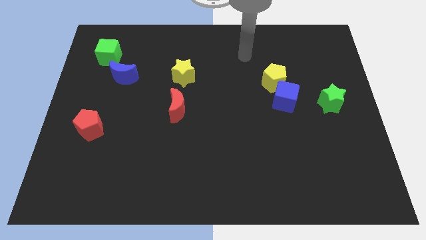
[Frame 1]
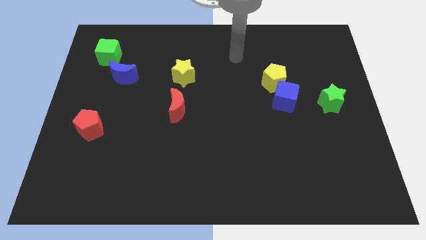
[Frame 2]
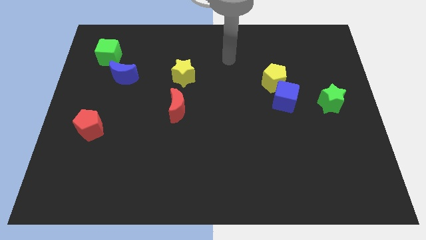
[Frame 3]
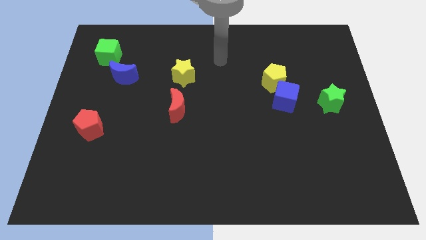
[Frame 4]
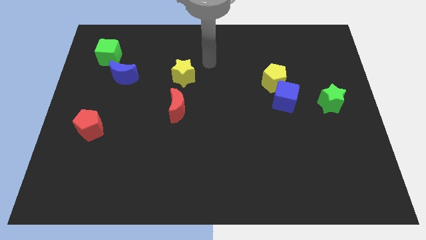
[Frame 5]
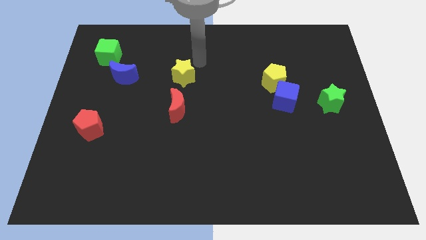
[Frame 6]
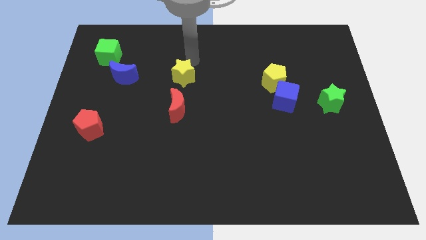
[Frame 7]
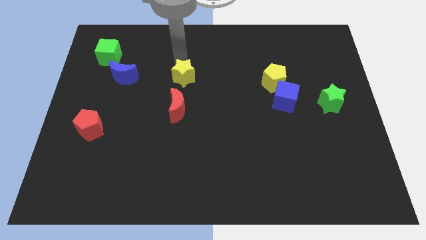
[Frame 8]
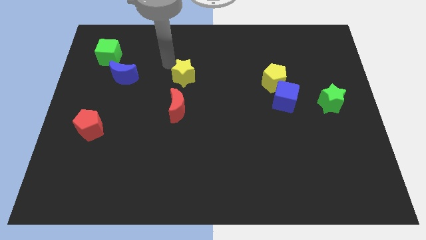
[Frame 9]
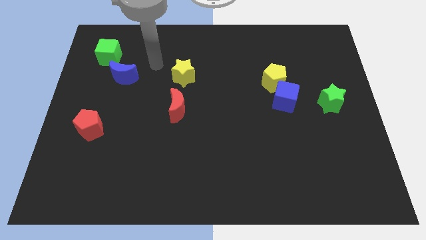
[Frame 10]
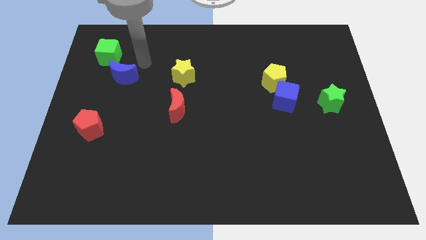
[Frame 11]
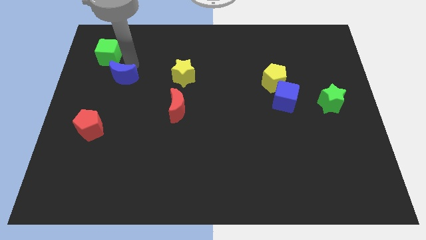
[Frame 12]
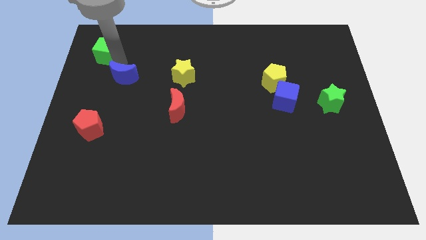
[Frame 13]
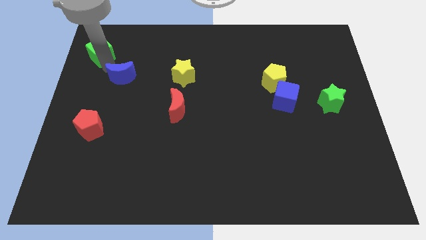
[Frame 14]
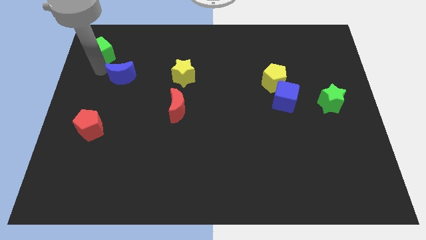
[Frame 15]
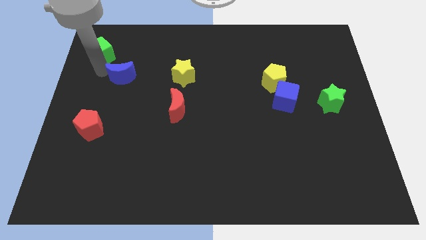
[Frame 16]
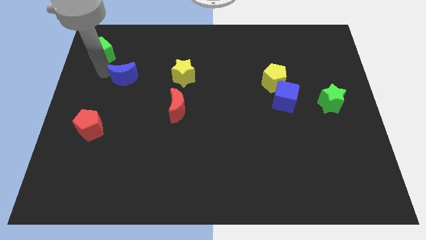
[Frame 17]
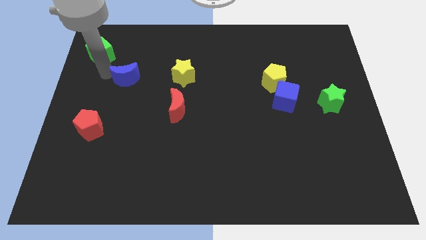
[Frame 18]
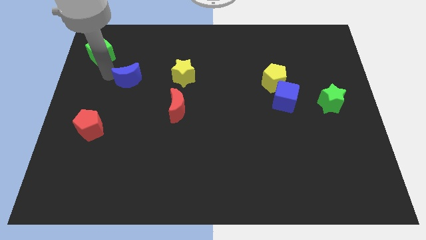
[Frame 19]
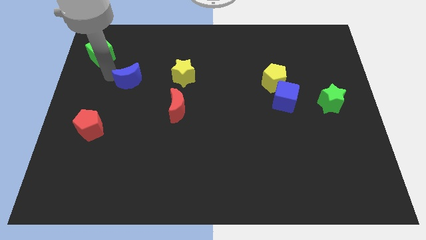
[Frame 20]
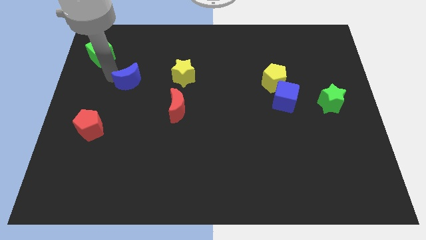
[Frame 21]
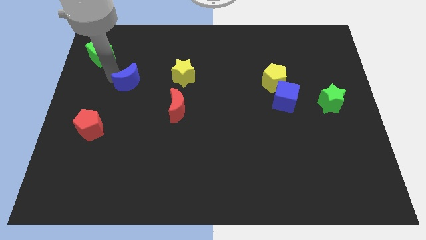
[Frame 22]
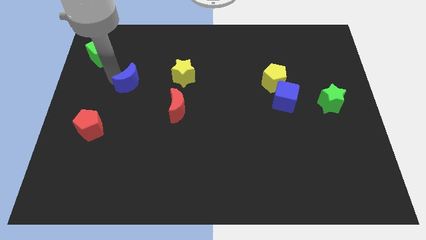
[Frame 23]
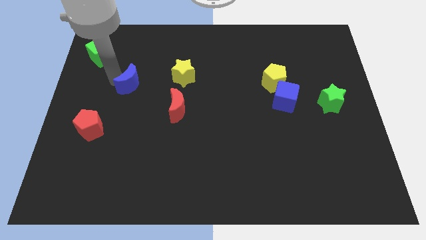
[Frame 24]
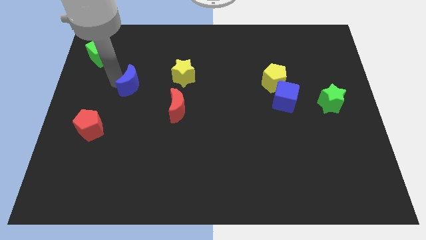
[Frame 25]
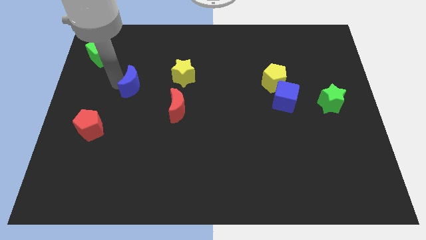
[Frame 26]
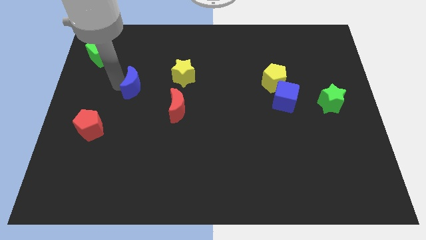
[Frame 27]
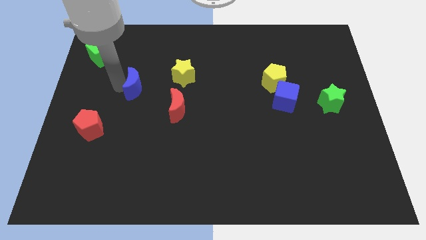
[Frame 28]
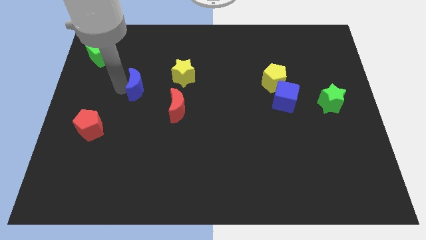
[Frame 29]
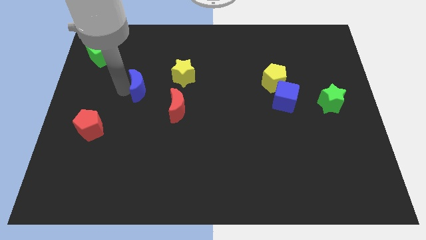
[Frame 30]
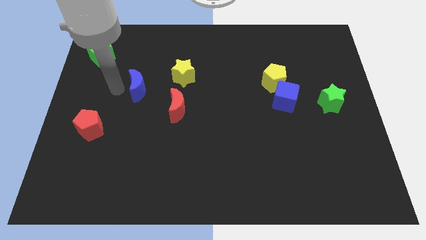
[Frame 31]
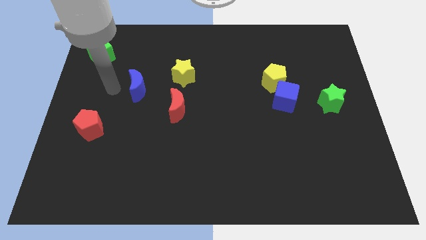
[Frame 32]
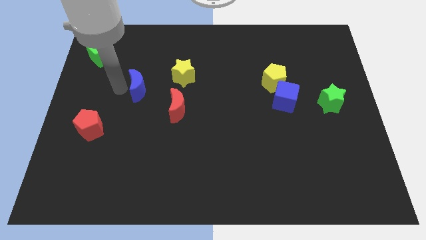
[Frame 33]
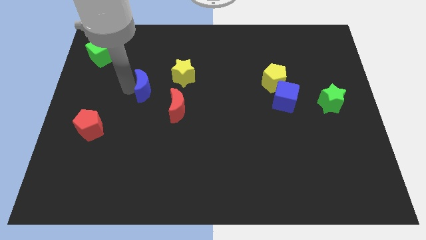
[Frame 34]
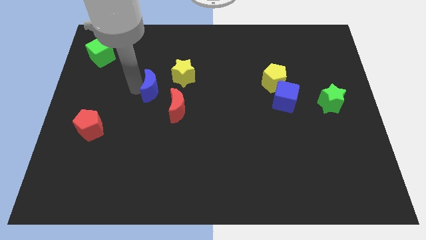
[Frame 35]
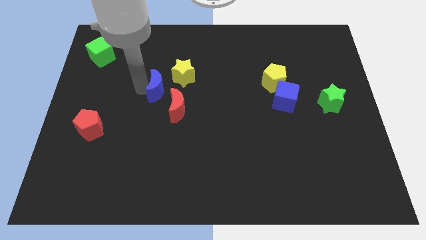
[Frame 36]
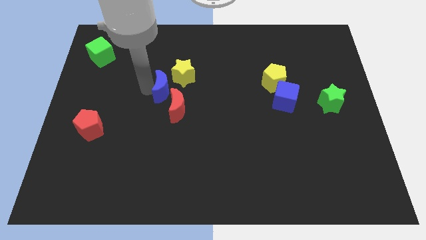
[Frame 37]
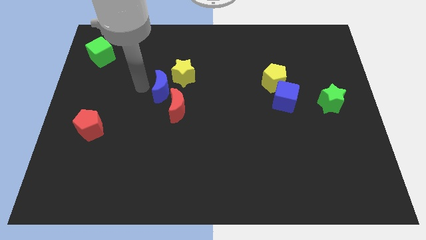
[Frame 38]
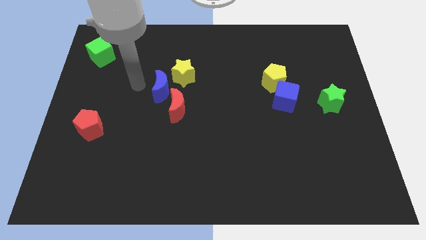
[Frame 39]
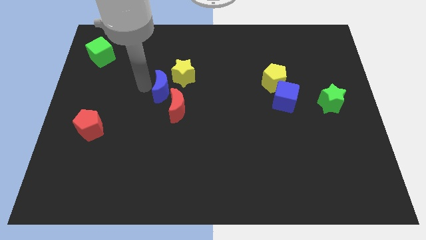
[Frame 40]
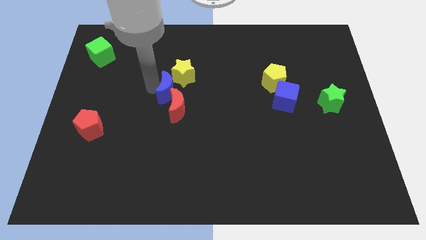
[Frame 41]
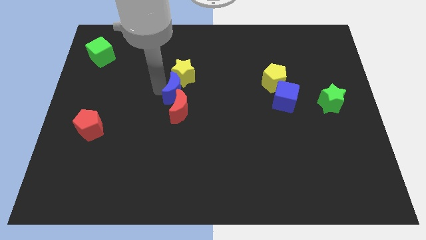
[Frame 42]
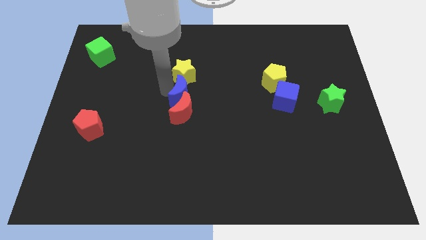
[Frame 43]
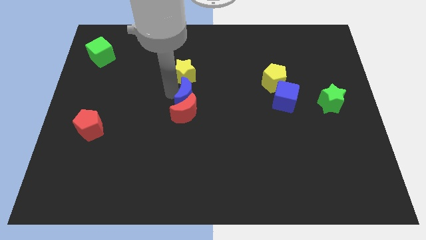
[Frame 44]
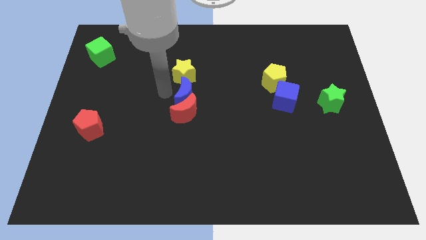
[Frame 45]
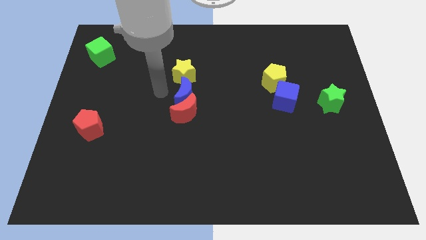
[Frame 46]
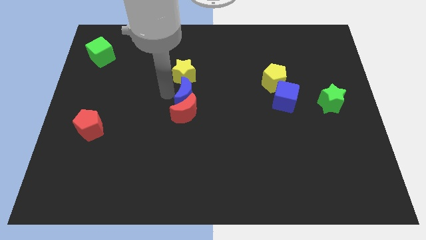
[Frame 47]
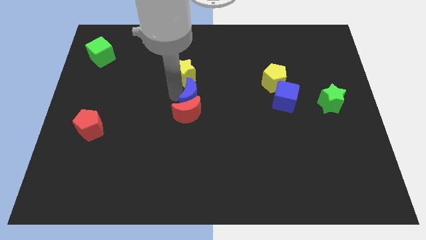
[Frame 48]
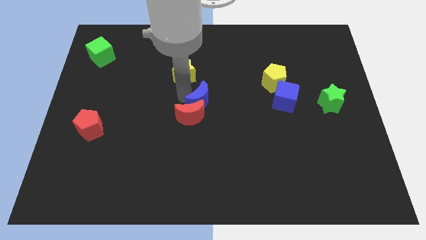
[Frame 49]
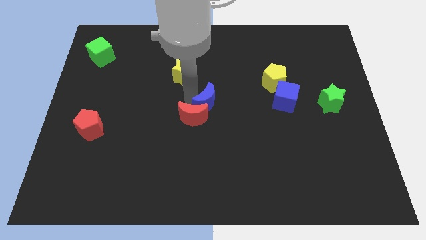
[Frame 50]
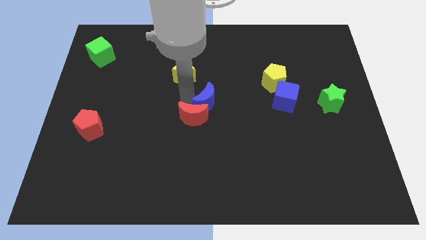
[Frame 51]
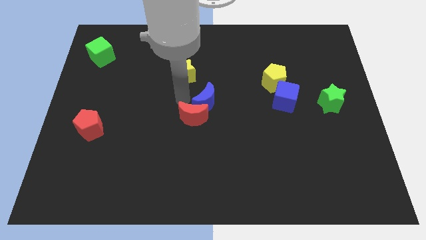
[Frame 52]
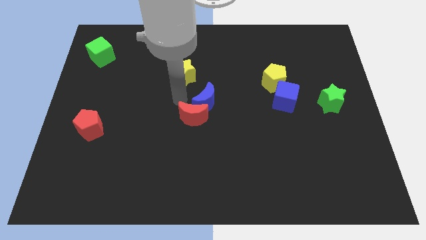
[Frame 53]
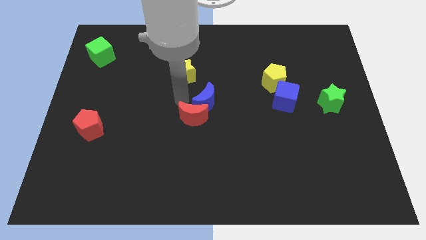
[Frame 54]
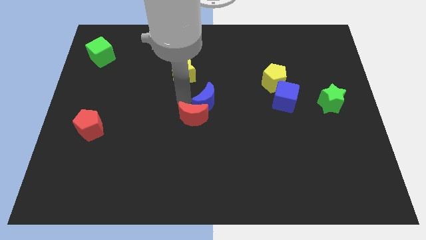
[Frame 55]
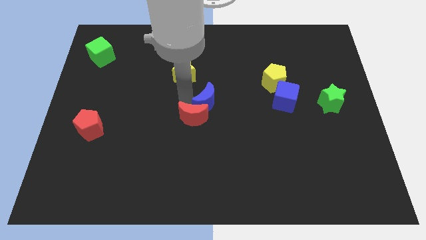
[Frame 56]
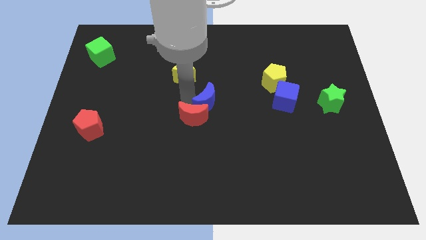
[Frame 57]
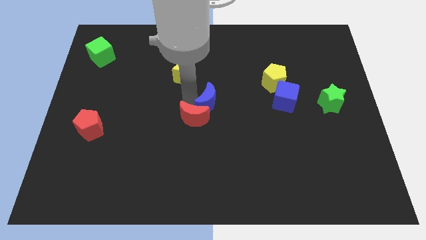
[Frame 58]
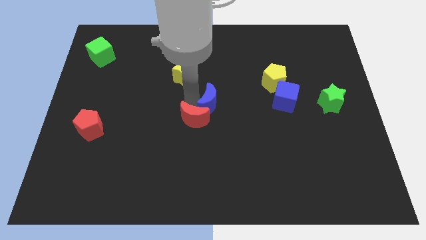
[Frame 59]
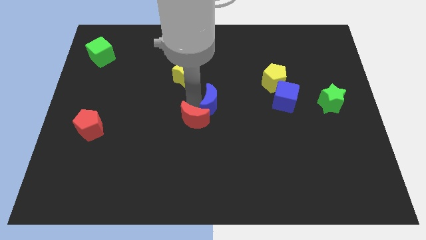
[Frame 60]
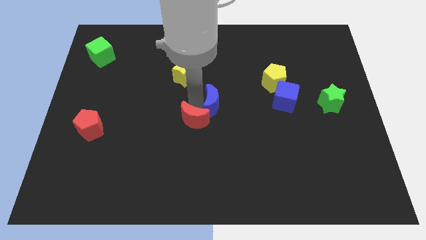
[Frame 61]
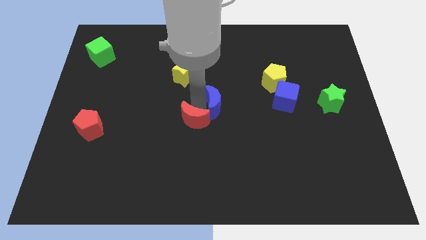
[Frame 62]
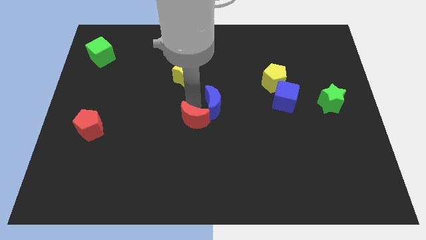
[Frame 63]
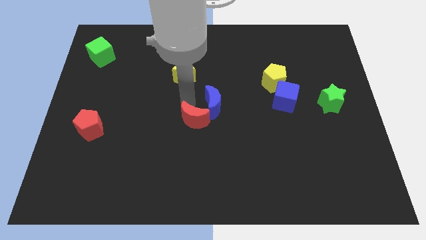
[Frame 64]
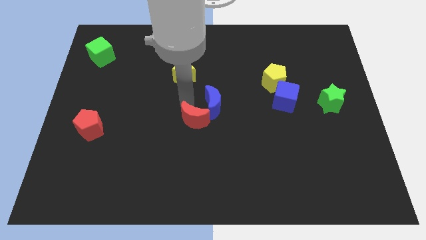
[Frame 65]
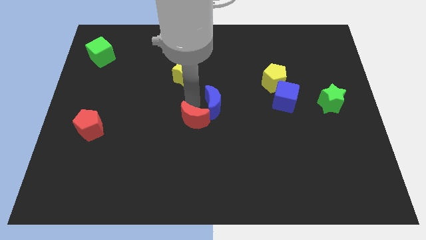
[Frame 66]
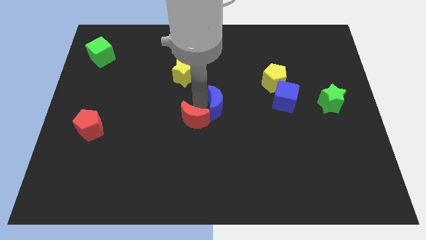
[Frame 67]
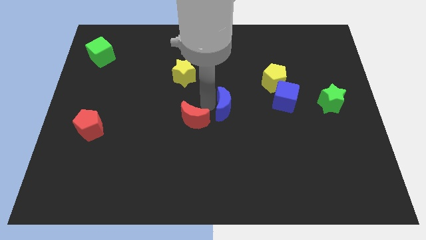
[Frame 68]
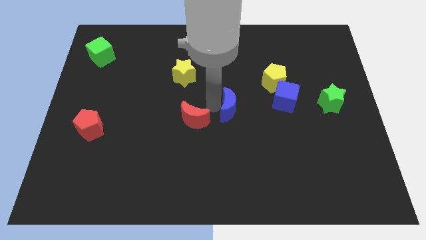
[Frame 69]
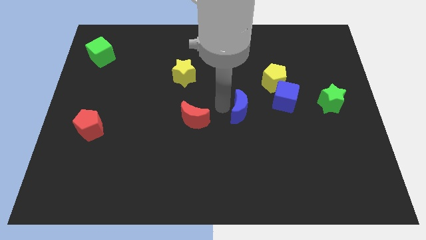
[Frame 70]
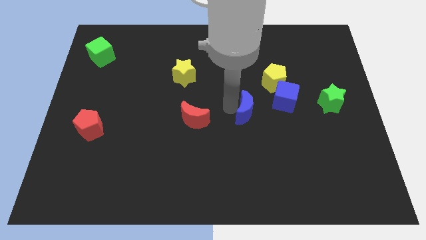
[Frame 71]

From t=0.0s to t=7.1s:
push the blue moon to the bottom left of the blue cube
